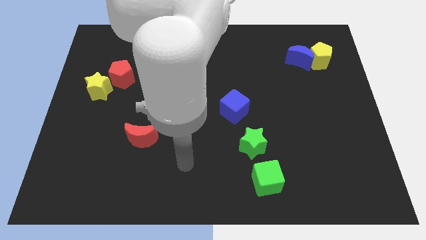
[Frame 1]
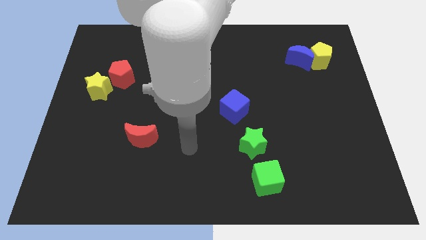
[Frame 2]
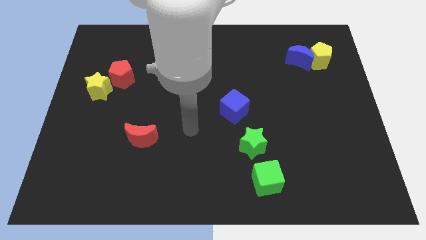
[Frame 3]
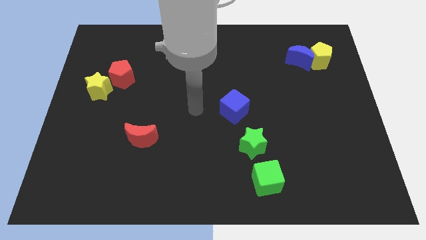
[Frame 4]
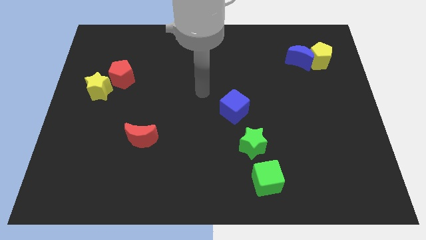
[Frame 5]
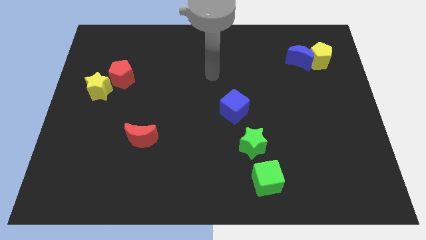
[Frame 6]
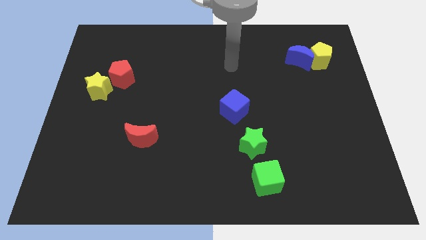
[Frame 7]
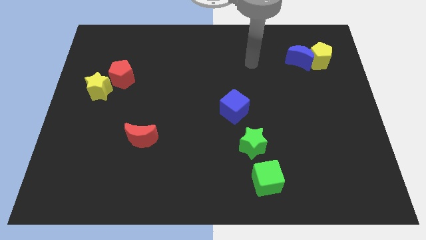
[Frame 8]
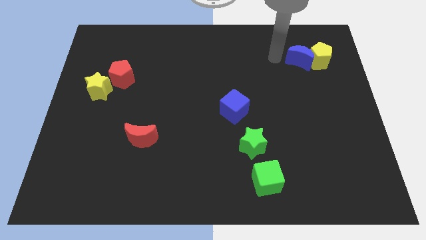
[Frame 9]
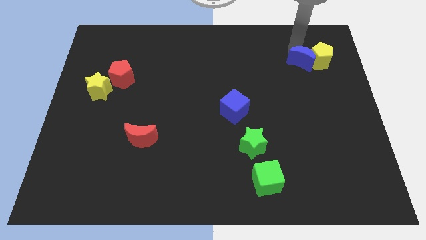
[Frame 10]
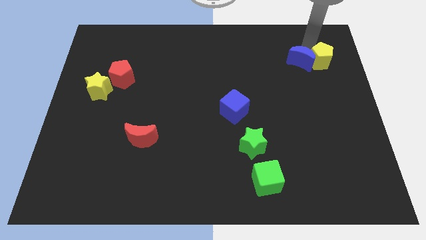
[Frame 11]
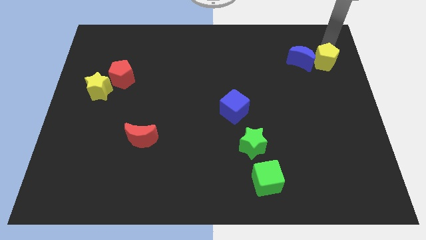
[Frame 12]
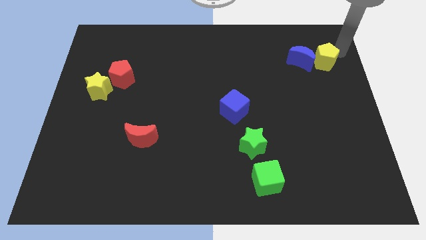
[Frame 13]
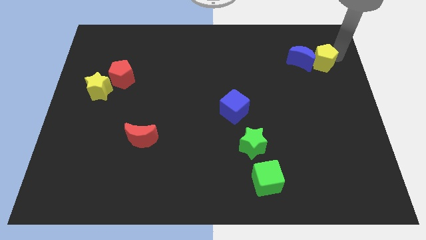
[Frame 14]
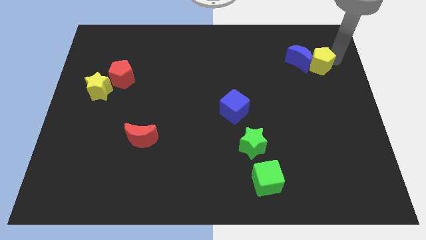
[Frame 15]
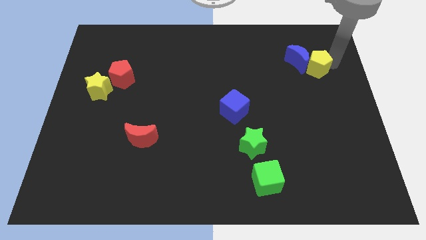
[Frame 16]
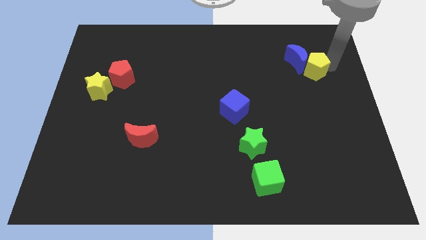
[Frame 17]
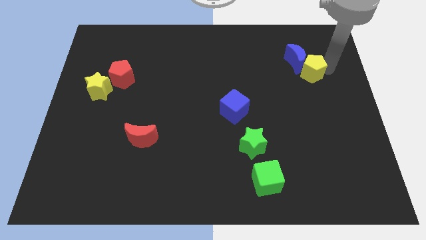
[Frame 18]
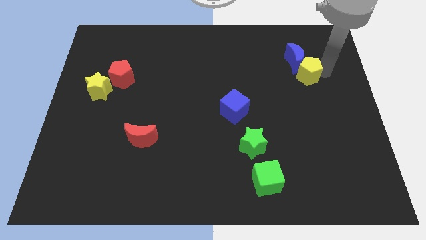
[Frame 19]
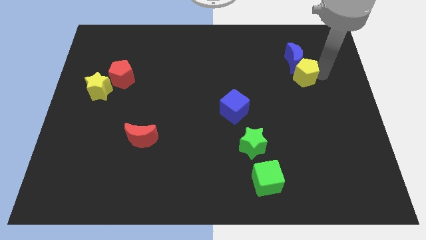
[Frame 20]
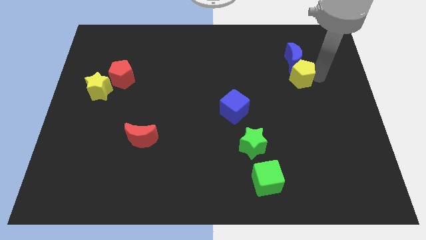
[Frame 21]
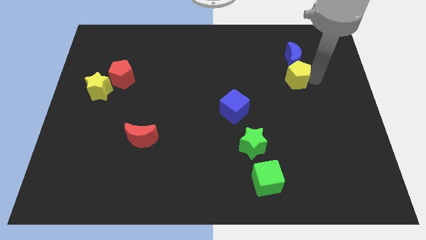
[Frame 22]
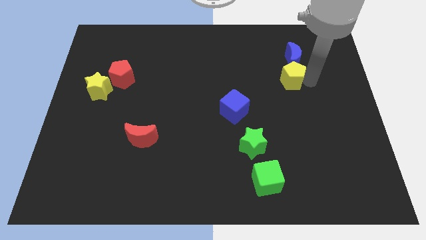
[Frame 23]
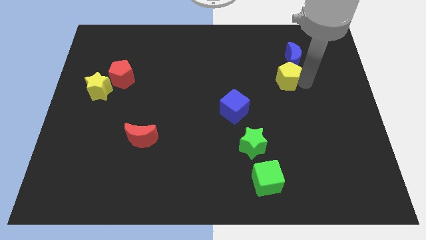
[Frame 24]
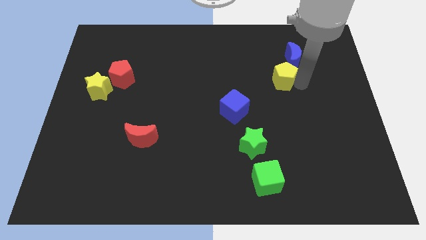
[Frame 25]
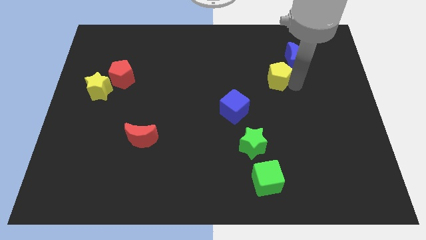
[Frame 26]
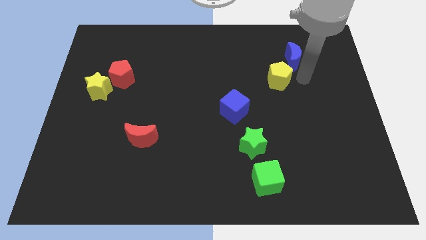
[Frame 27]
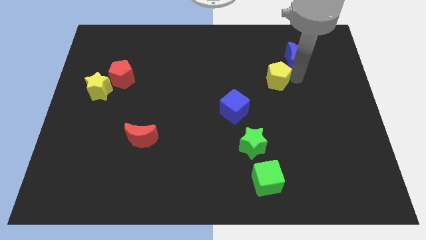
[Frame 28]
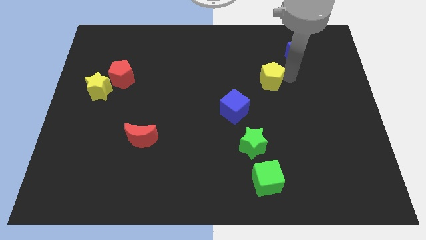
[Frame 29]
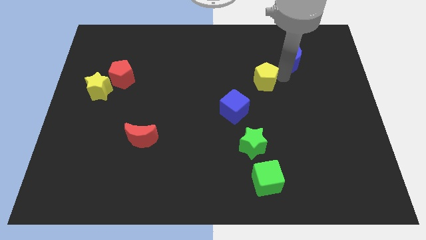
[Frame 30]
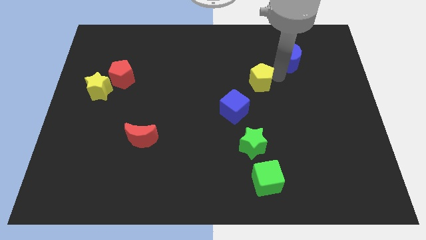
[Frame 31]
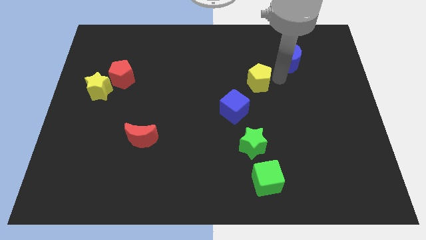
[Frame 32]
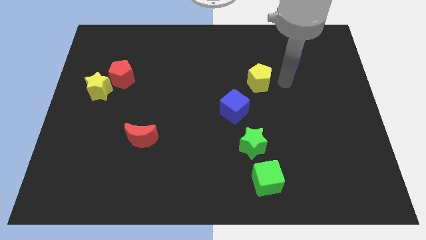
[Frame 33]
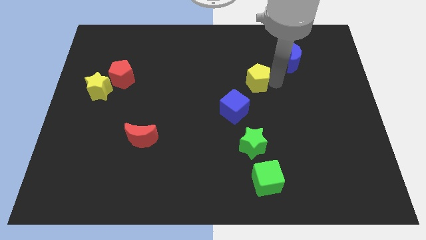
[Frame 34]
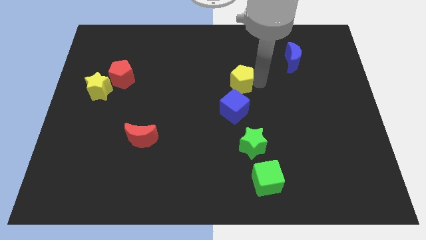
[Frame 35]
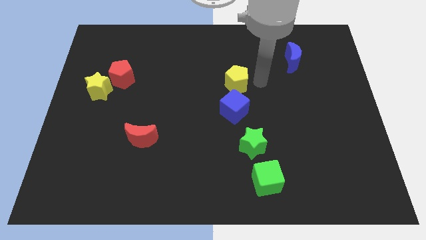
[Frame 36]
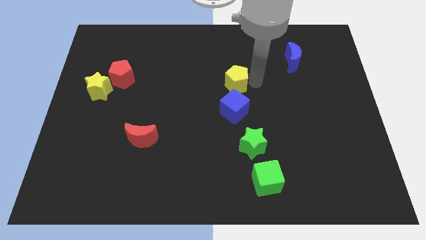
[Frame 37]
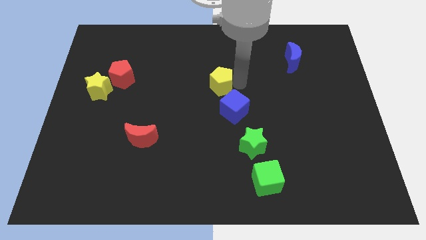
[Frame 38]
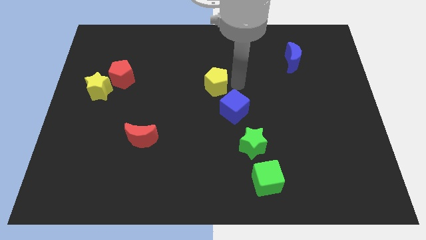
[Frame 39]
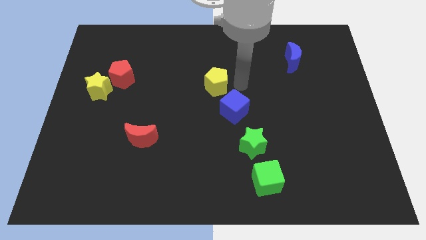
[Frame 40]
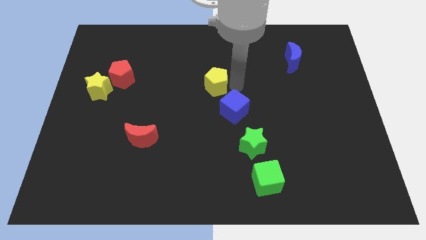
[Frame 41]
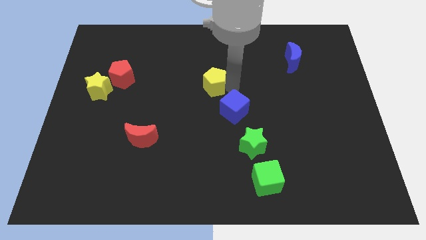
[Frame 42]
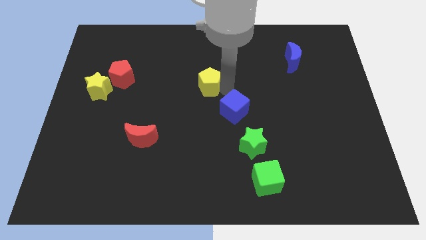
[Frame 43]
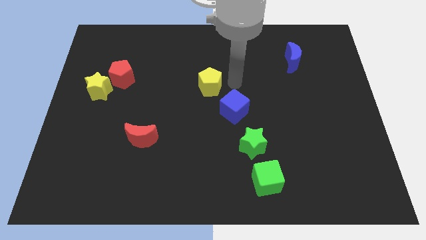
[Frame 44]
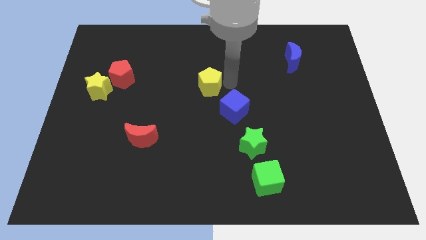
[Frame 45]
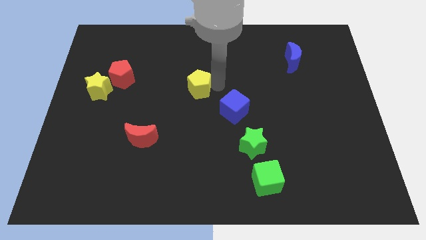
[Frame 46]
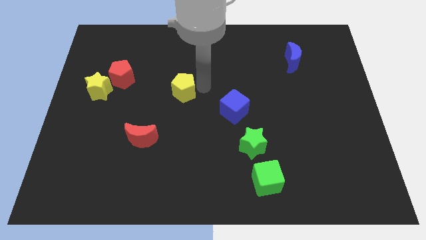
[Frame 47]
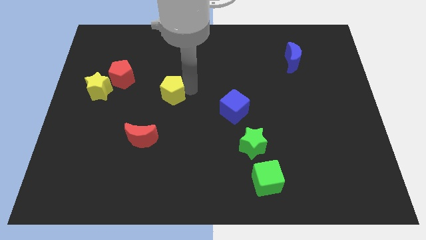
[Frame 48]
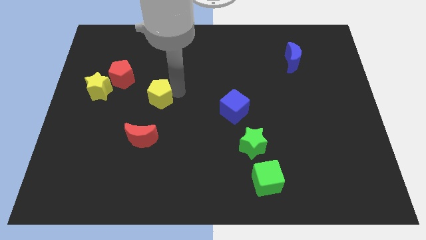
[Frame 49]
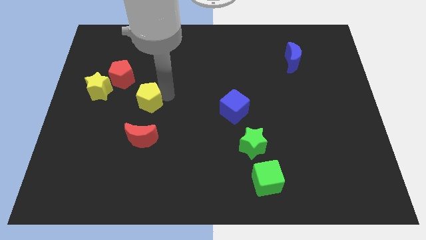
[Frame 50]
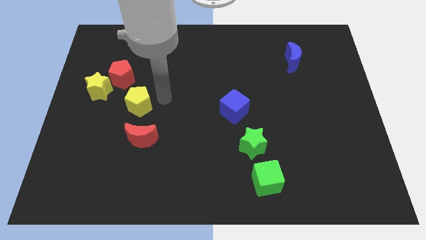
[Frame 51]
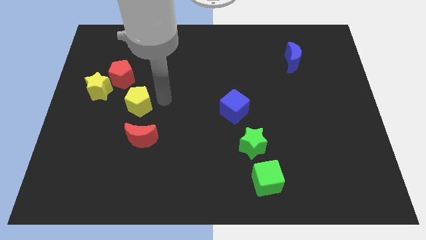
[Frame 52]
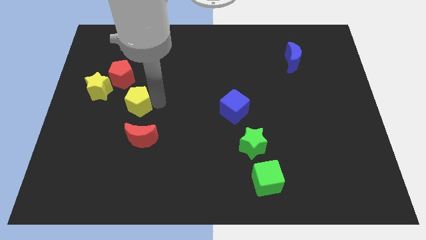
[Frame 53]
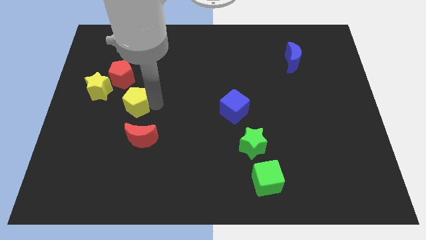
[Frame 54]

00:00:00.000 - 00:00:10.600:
put the yellow pentagon below the red pentagon

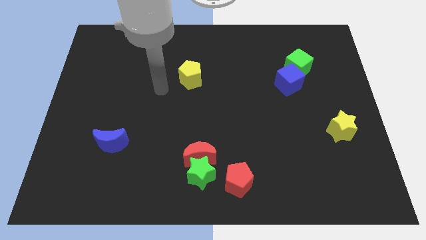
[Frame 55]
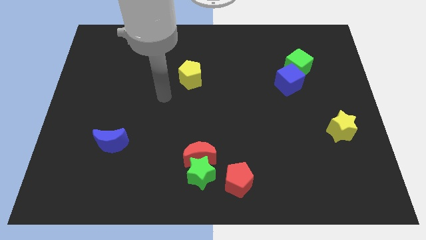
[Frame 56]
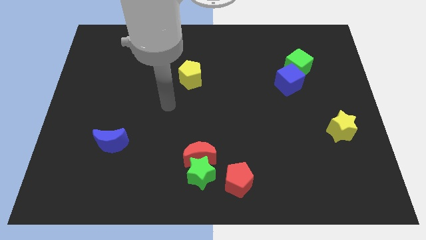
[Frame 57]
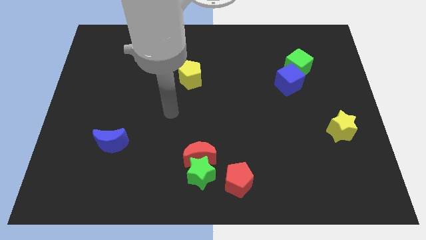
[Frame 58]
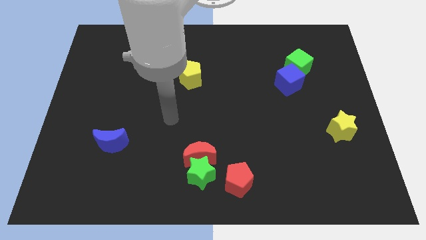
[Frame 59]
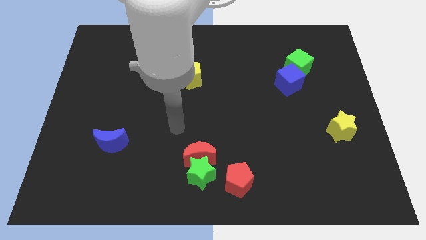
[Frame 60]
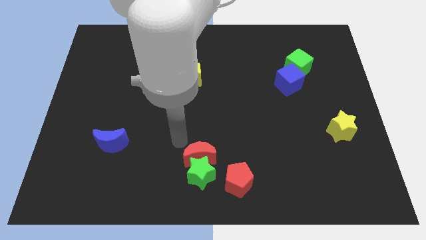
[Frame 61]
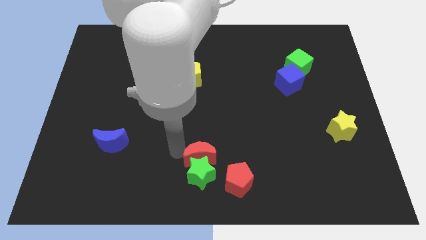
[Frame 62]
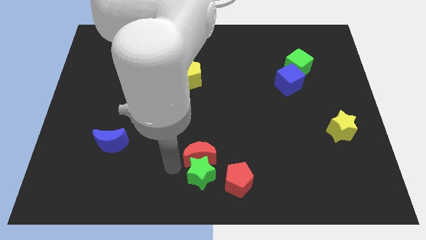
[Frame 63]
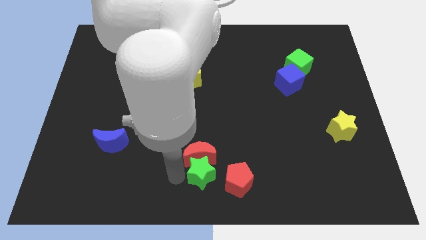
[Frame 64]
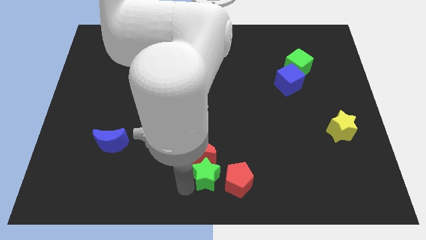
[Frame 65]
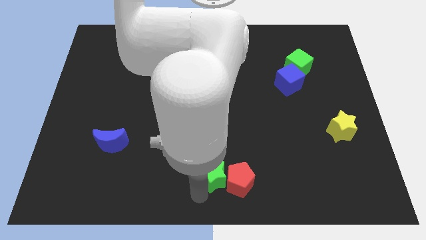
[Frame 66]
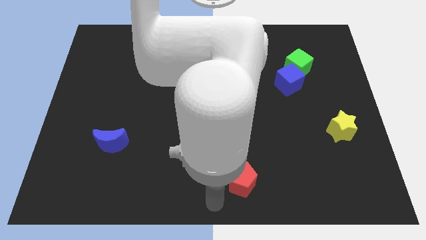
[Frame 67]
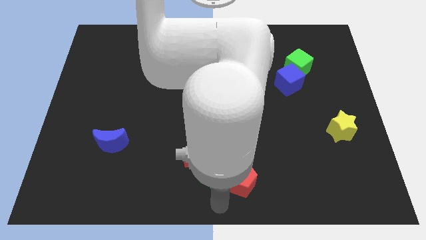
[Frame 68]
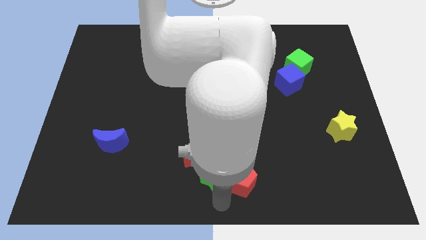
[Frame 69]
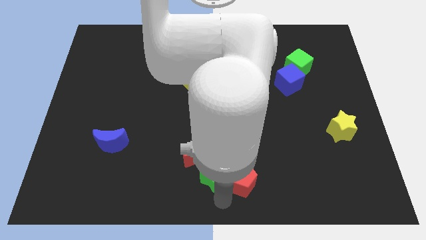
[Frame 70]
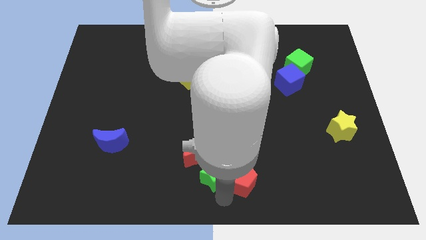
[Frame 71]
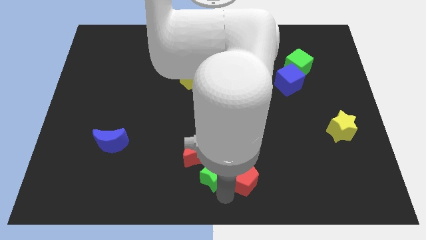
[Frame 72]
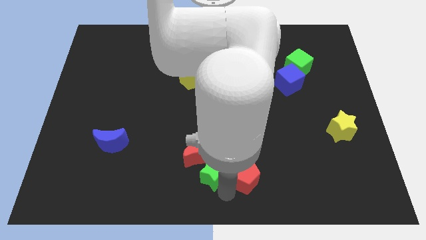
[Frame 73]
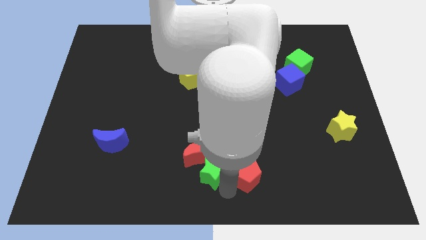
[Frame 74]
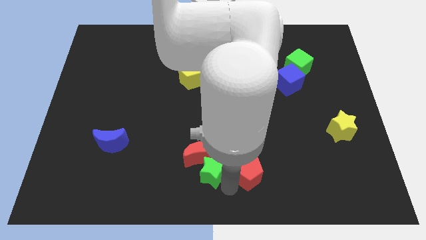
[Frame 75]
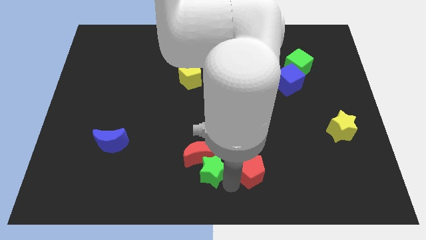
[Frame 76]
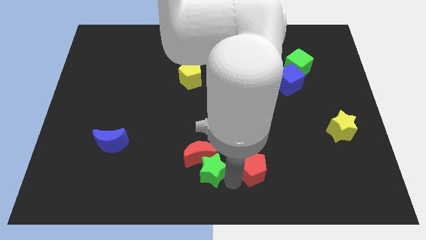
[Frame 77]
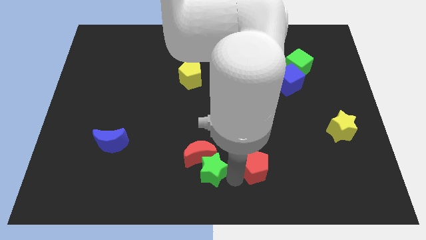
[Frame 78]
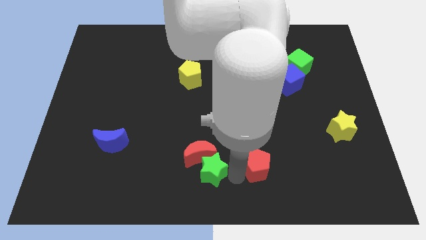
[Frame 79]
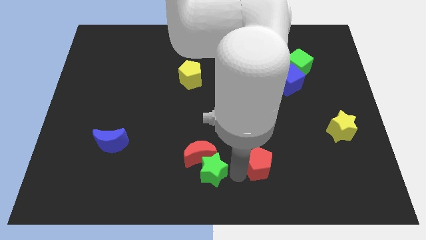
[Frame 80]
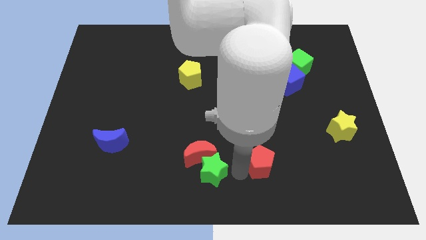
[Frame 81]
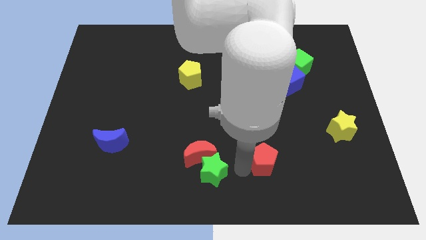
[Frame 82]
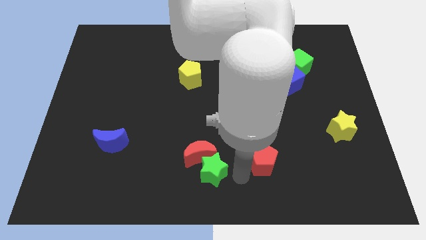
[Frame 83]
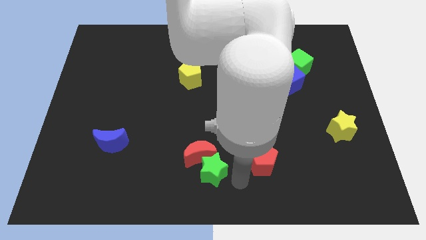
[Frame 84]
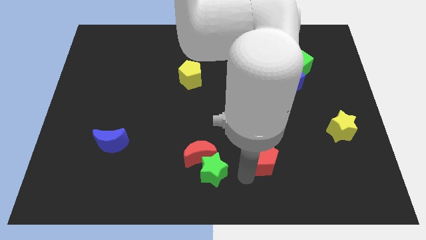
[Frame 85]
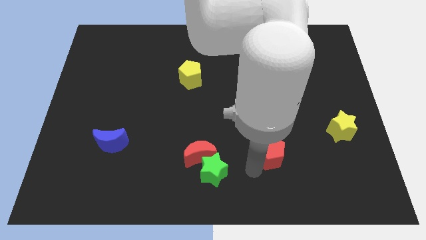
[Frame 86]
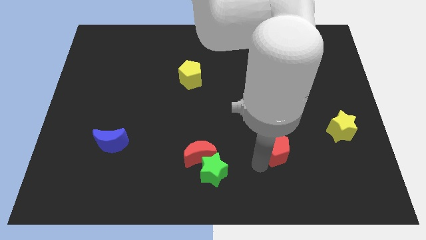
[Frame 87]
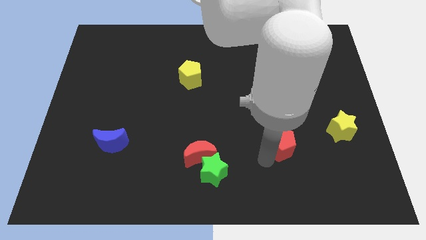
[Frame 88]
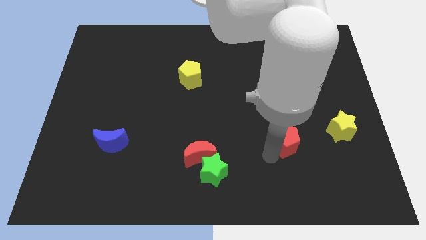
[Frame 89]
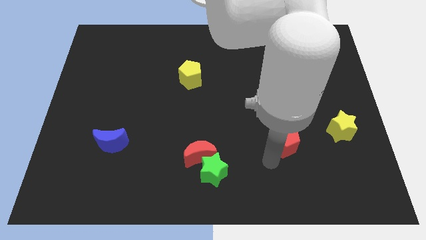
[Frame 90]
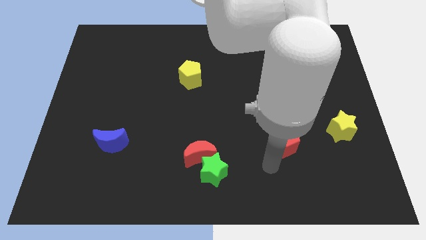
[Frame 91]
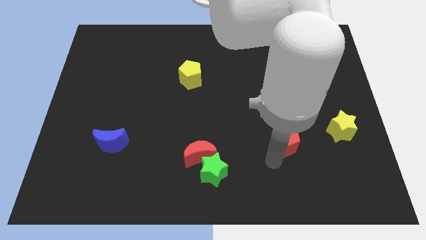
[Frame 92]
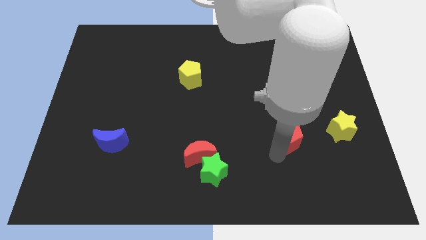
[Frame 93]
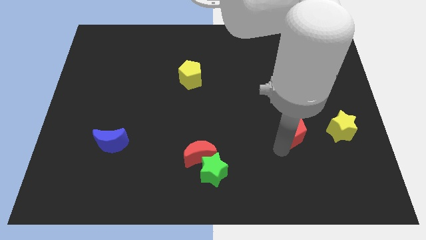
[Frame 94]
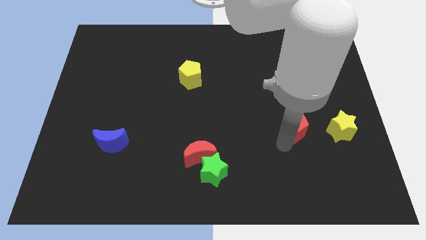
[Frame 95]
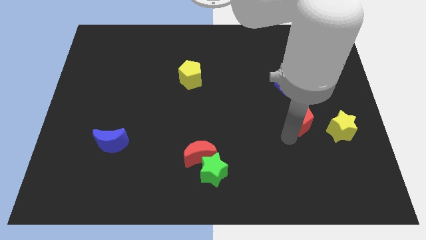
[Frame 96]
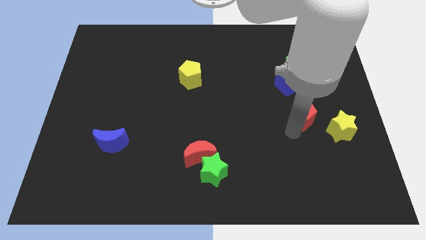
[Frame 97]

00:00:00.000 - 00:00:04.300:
put the red pentagon to the bottom side of the green cube
